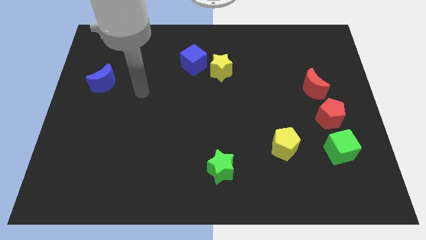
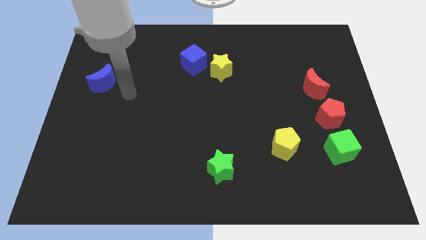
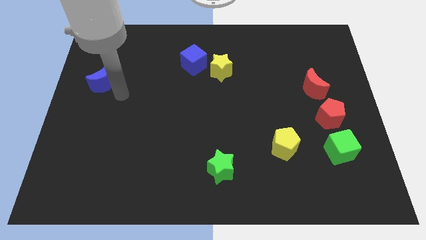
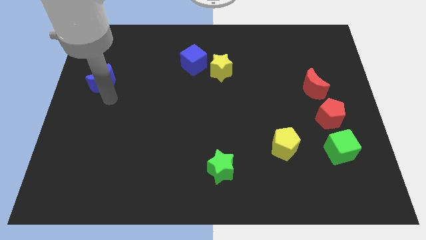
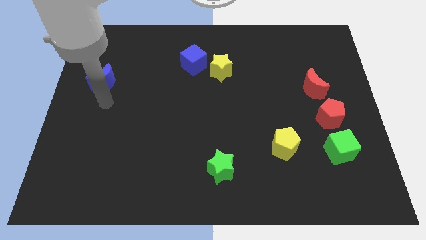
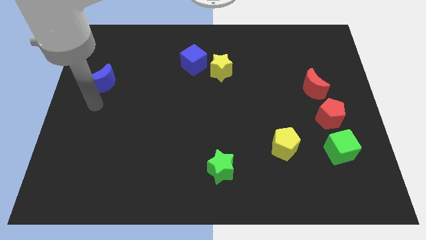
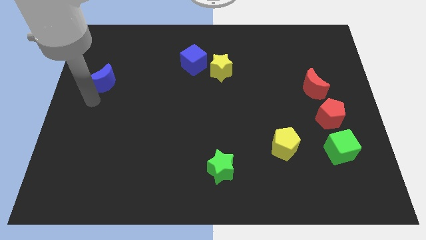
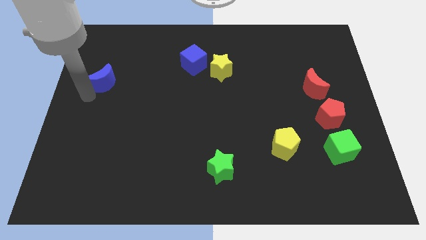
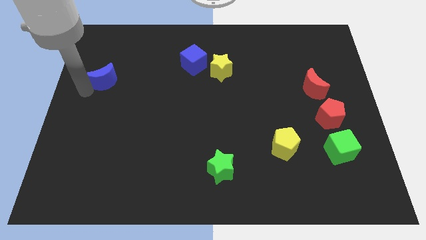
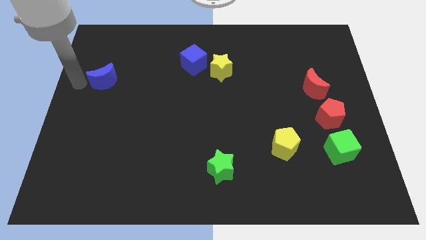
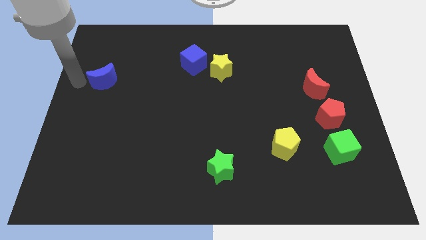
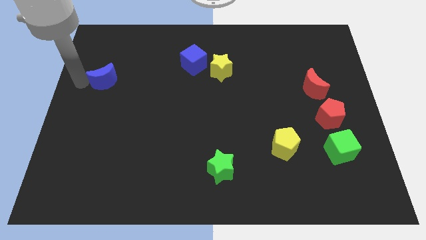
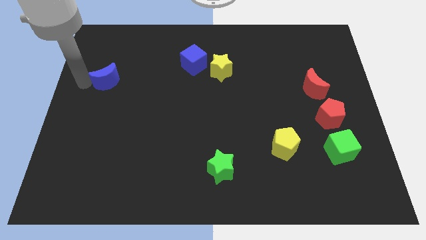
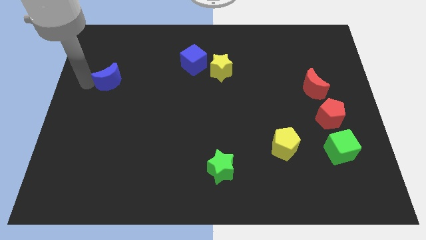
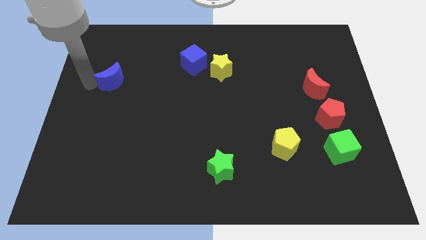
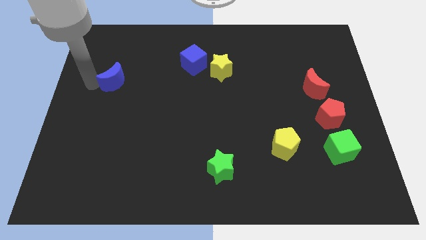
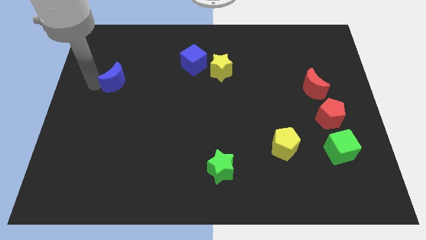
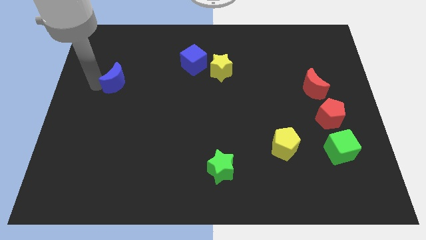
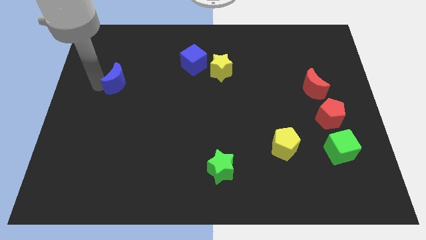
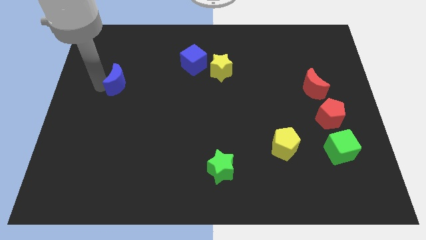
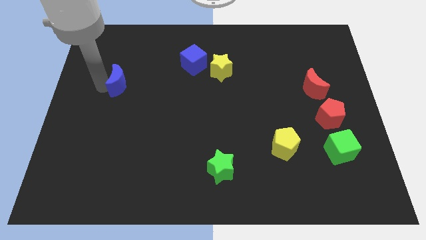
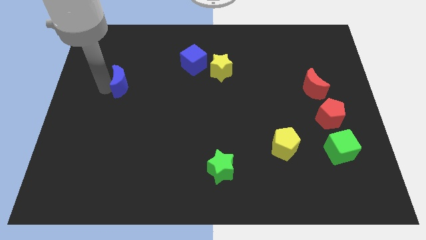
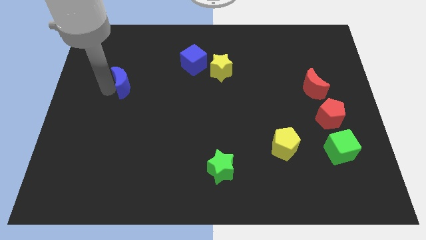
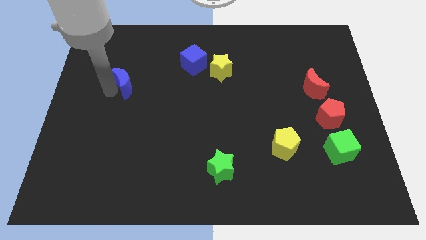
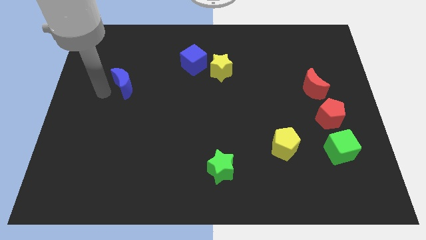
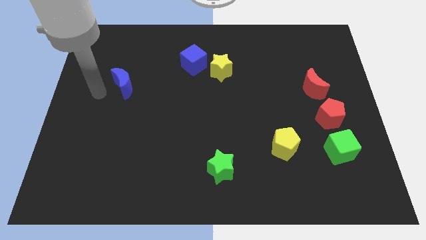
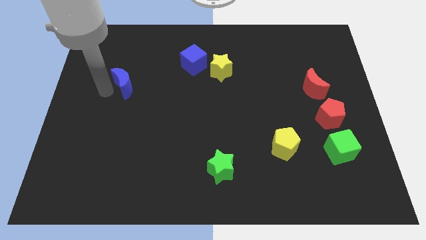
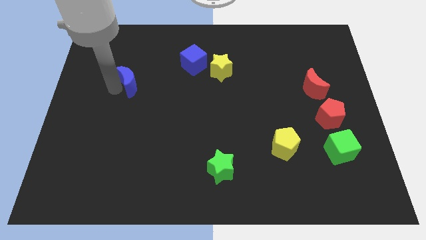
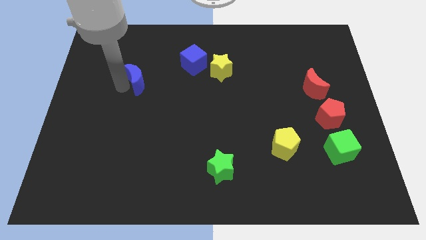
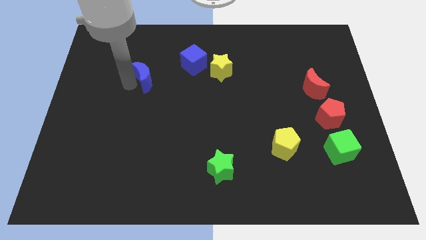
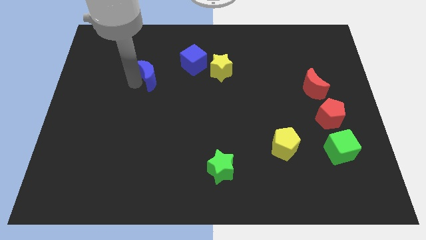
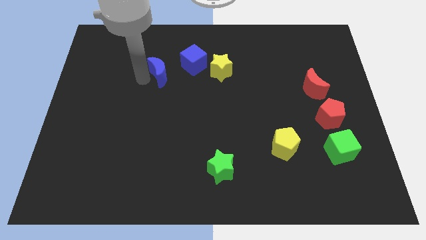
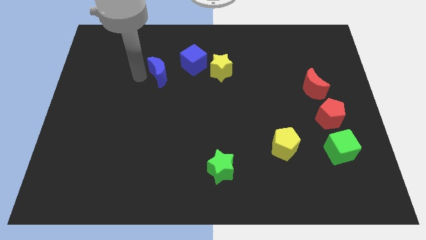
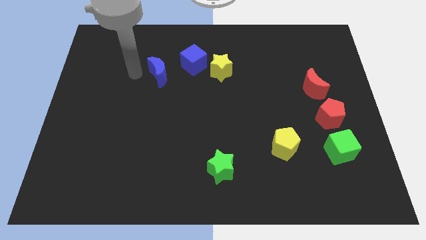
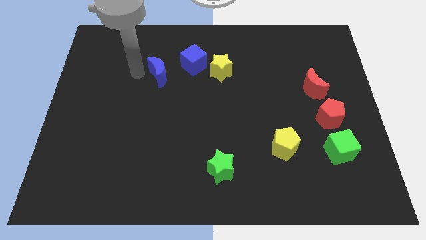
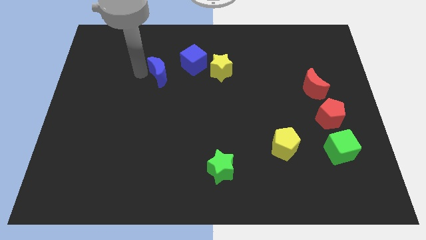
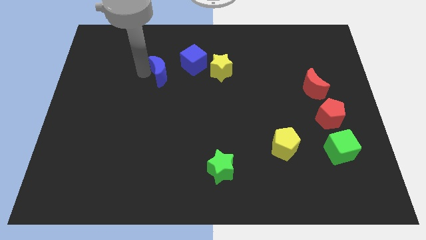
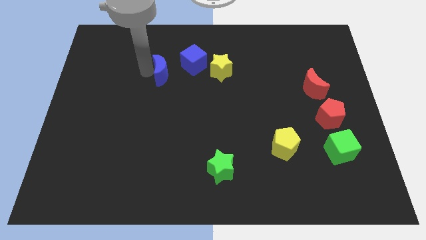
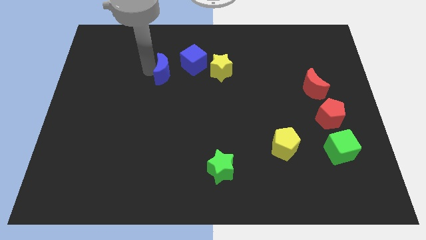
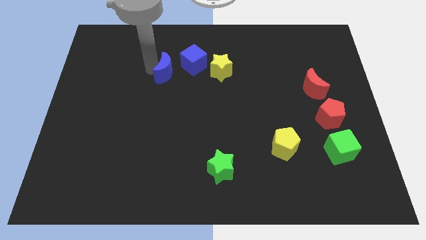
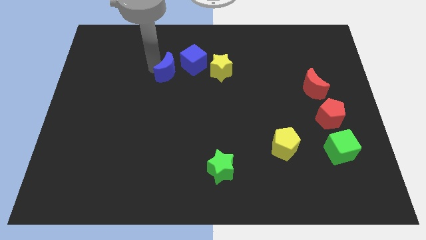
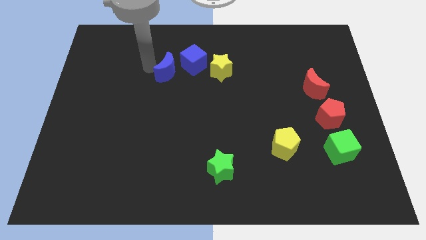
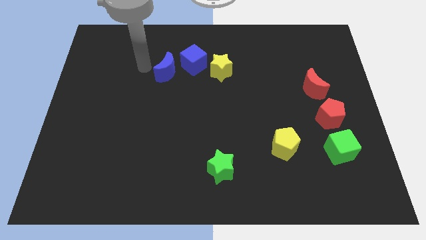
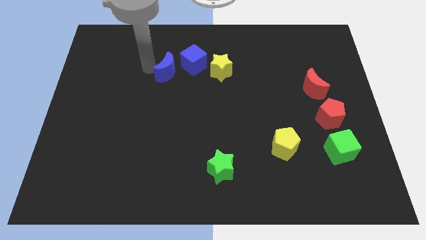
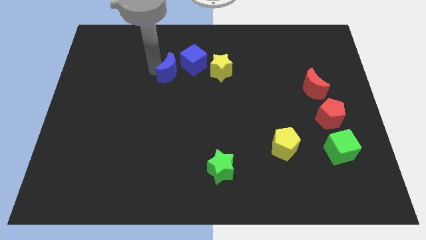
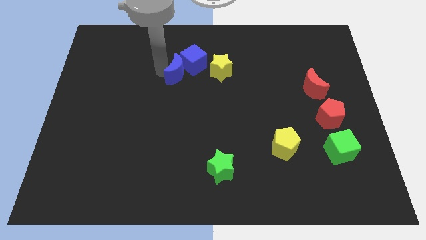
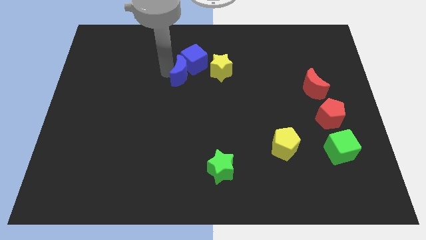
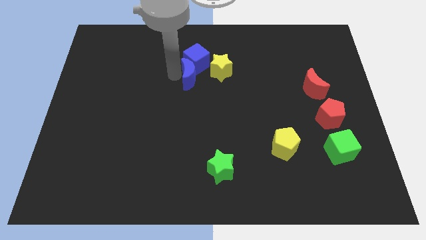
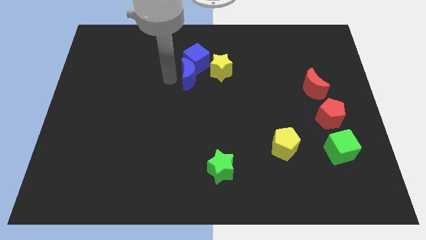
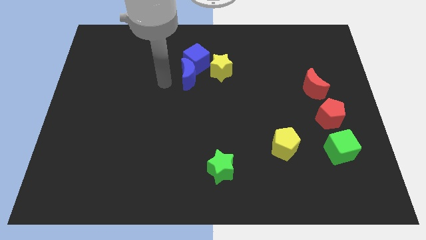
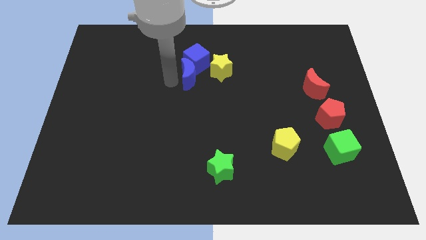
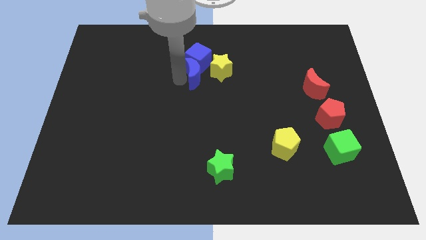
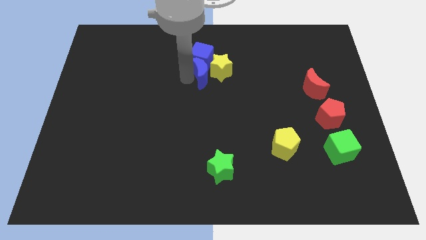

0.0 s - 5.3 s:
push the blue moon close to the yellow star

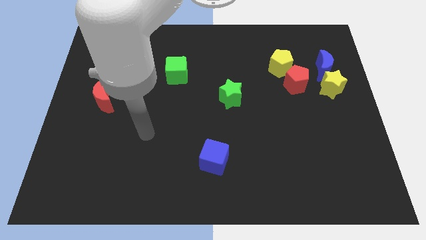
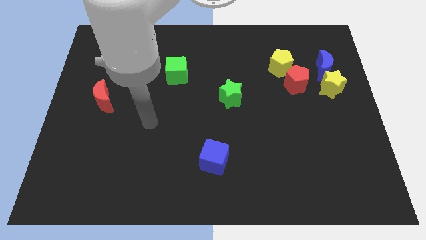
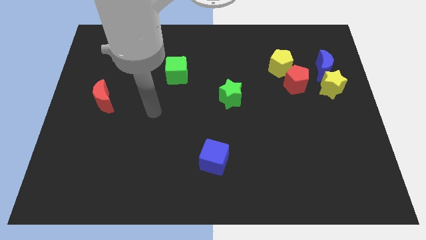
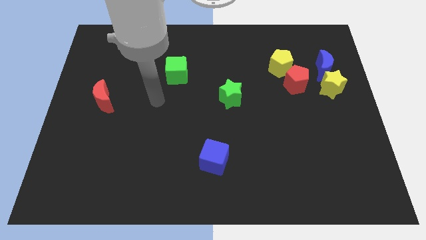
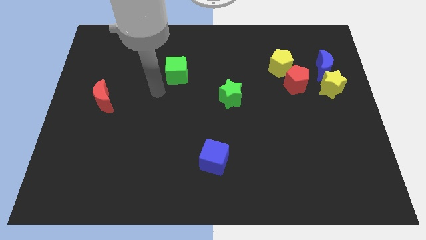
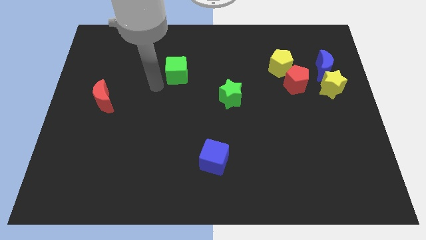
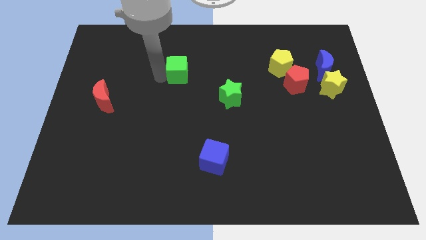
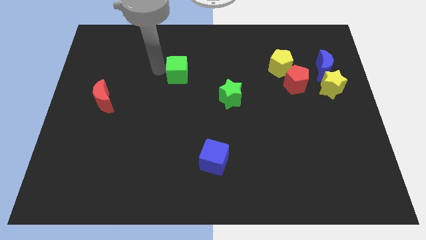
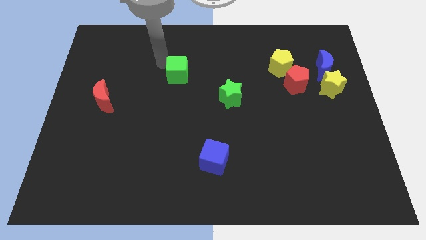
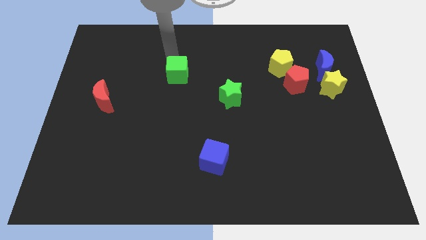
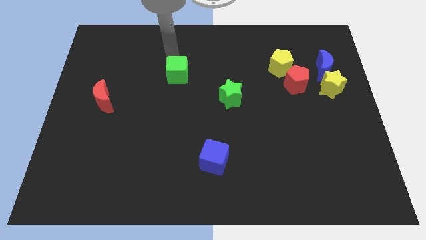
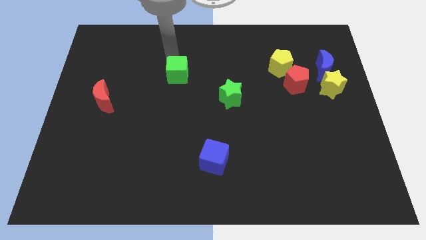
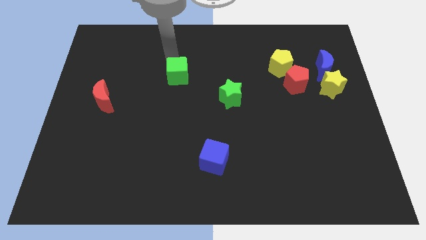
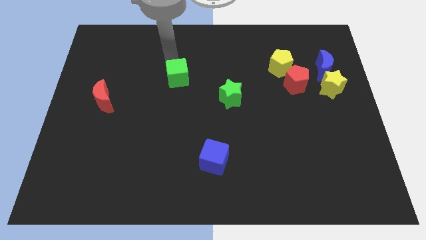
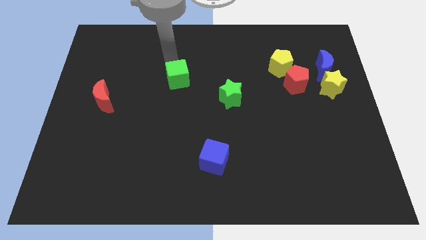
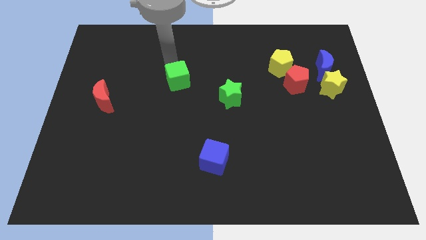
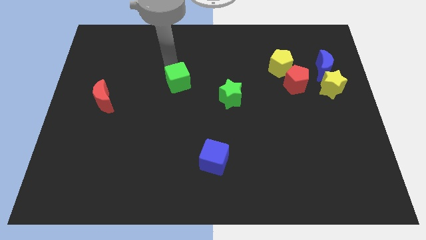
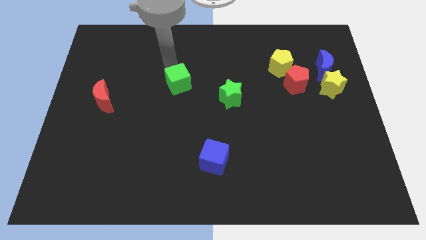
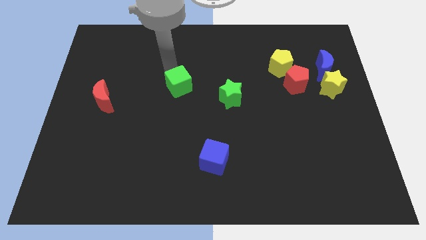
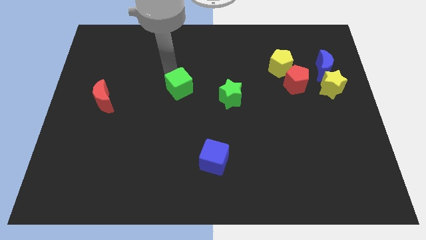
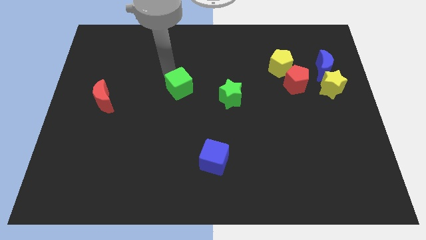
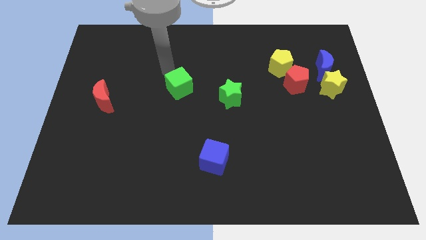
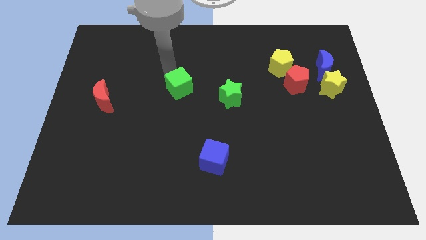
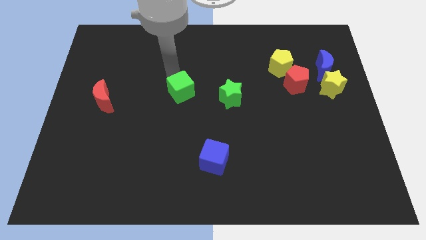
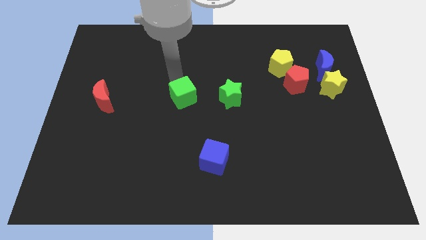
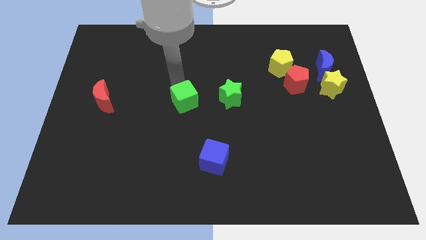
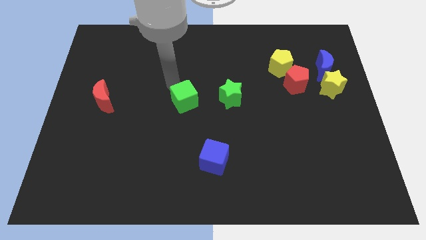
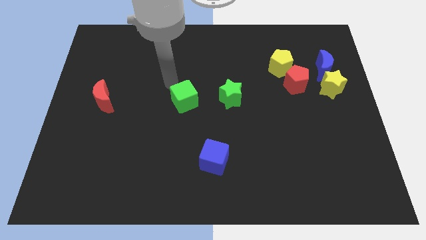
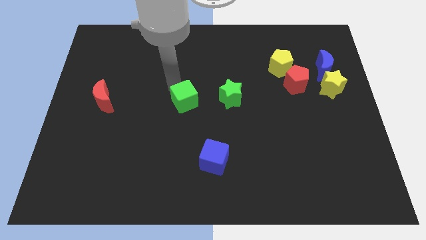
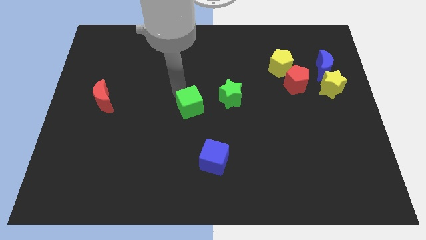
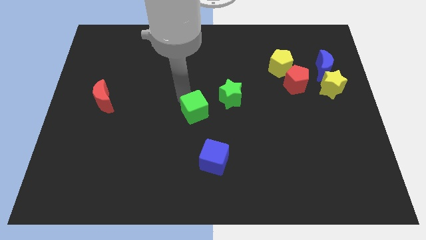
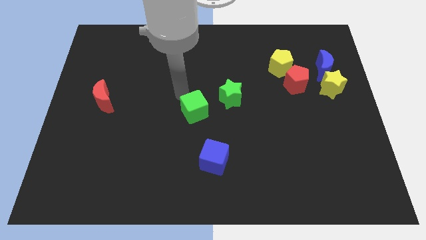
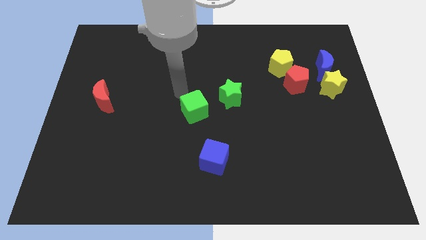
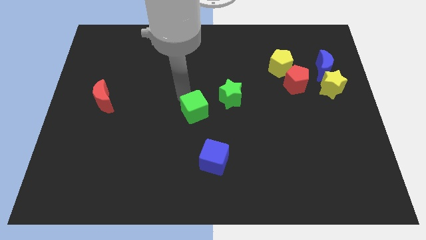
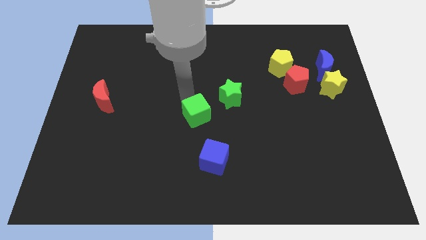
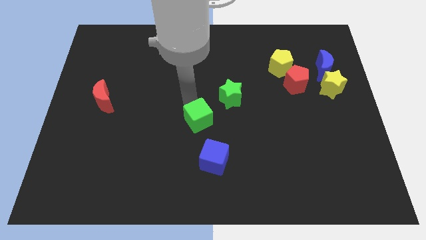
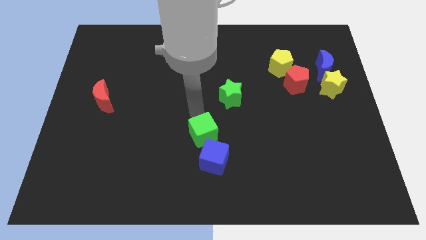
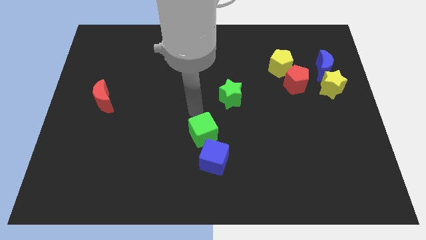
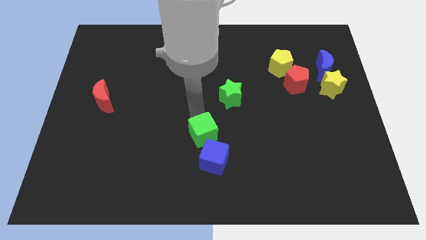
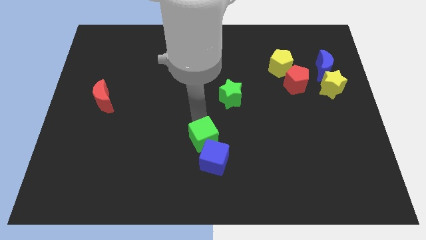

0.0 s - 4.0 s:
move the green cube towards the blue cube
